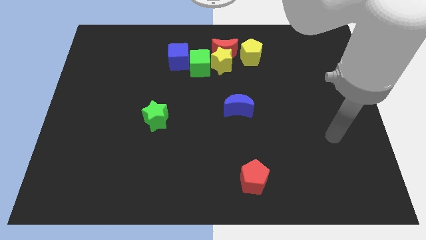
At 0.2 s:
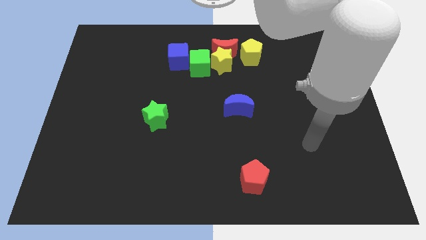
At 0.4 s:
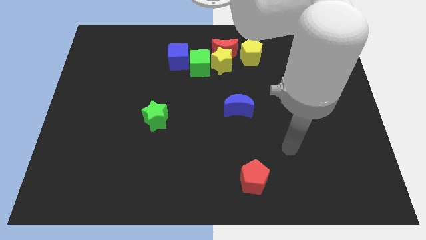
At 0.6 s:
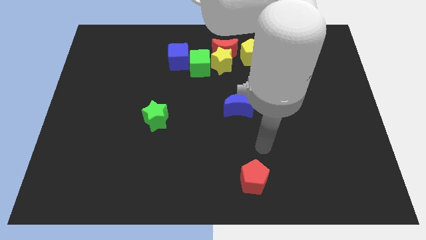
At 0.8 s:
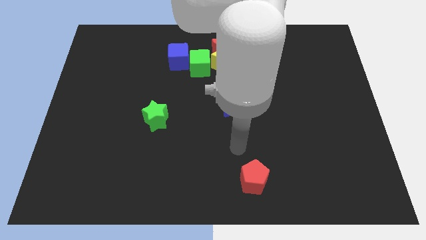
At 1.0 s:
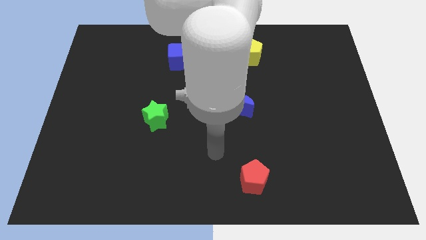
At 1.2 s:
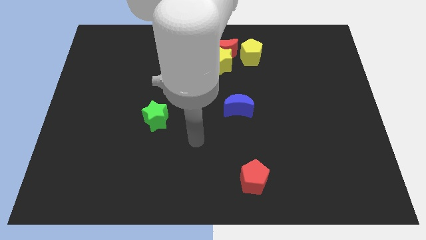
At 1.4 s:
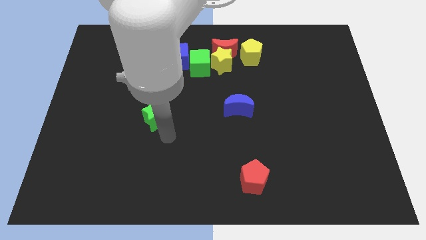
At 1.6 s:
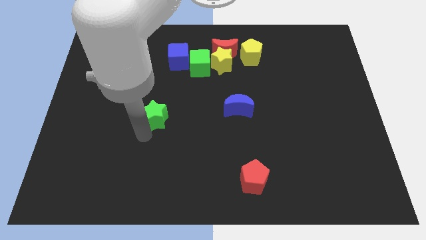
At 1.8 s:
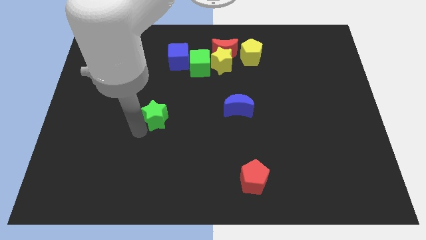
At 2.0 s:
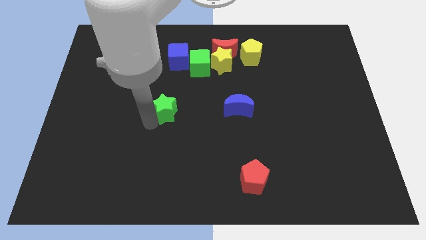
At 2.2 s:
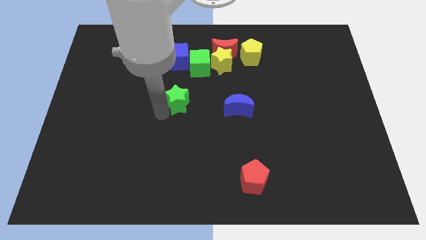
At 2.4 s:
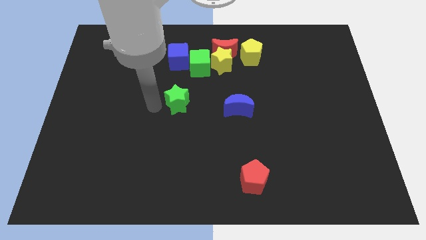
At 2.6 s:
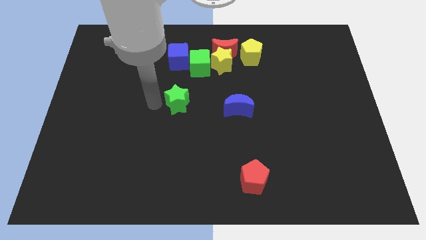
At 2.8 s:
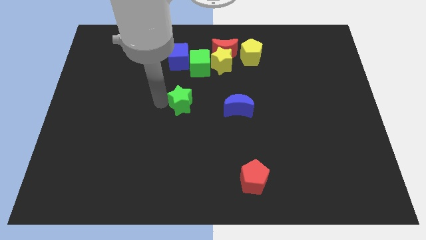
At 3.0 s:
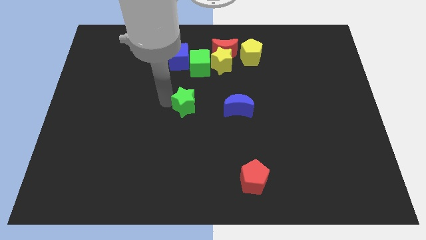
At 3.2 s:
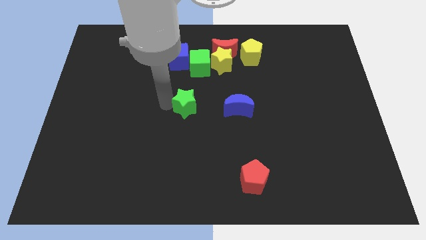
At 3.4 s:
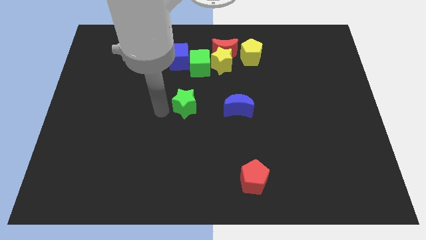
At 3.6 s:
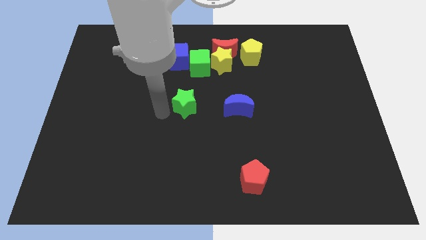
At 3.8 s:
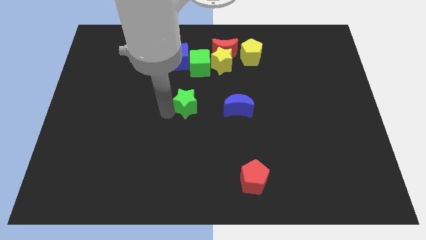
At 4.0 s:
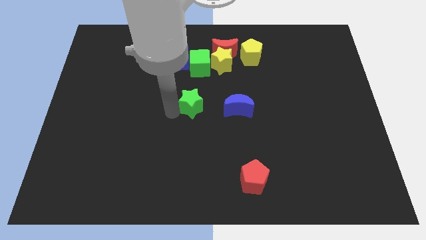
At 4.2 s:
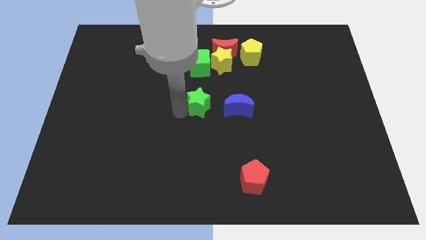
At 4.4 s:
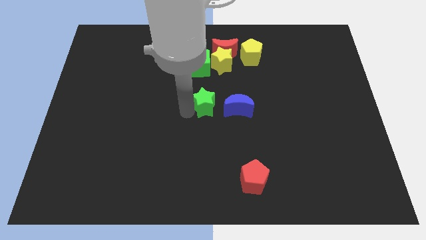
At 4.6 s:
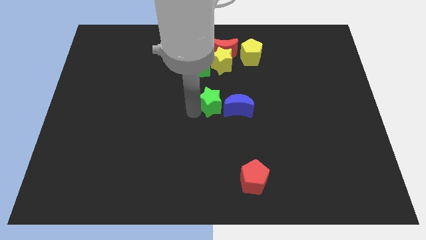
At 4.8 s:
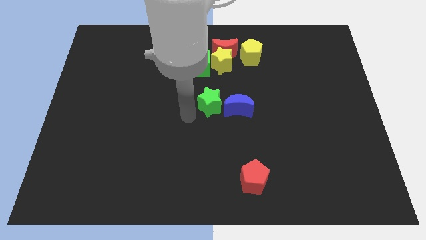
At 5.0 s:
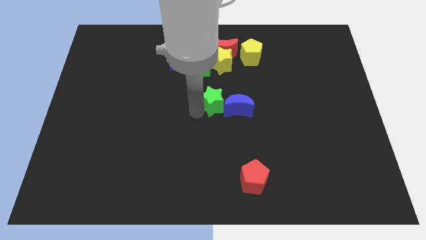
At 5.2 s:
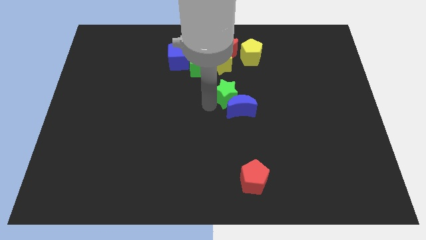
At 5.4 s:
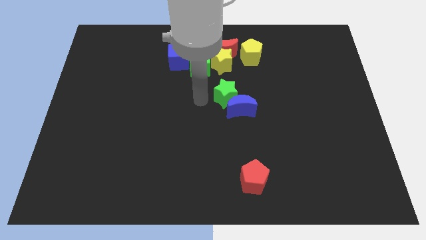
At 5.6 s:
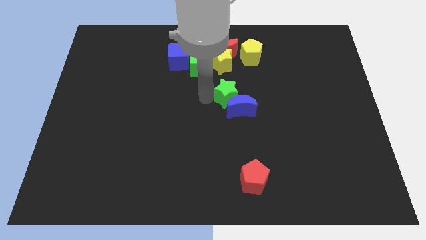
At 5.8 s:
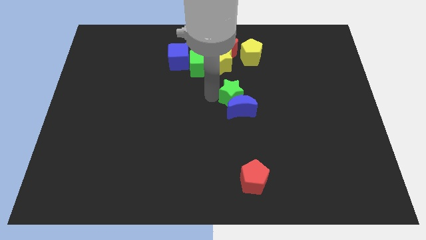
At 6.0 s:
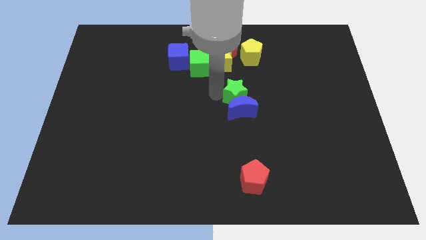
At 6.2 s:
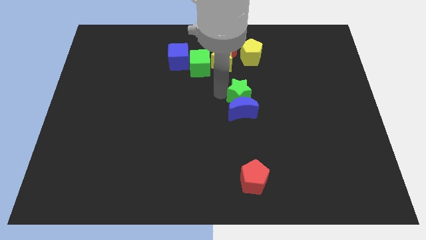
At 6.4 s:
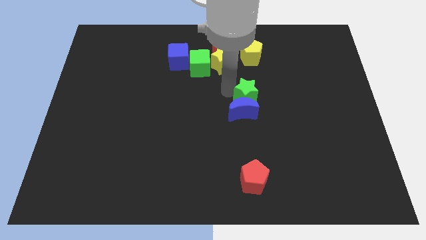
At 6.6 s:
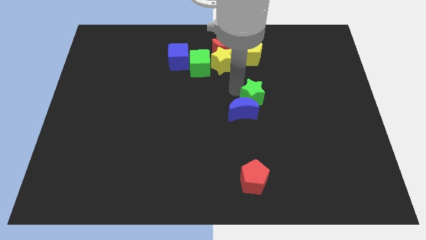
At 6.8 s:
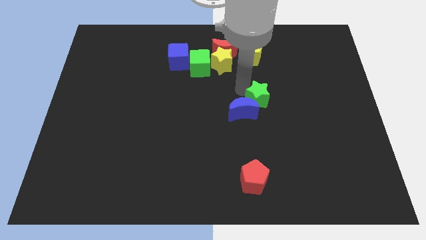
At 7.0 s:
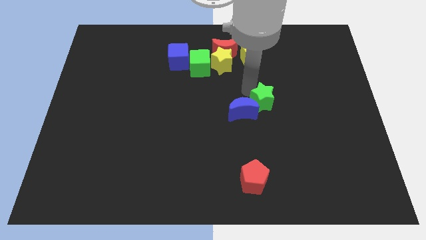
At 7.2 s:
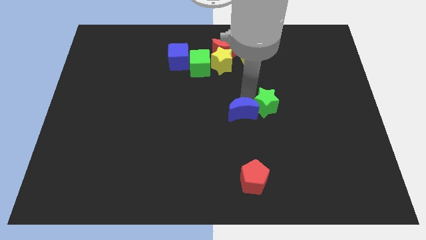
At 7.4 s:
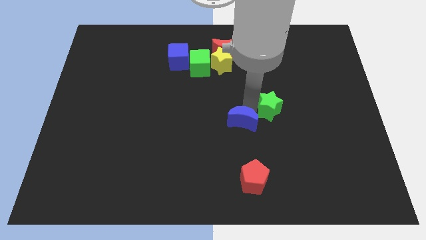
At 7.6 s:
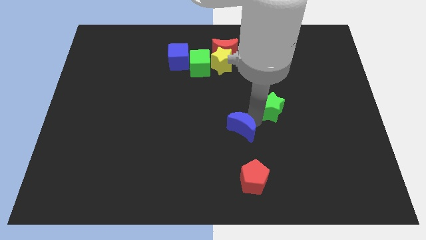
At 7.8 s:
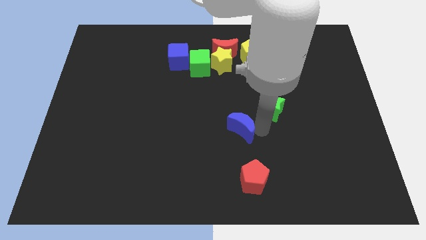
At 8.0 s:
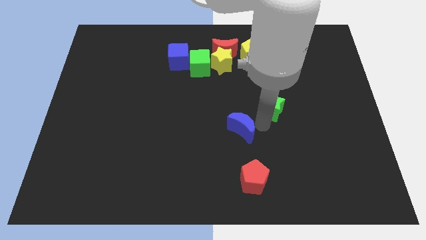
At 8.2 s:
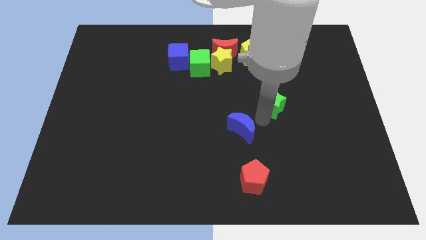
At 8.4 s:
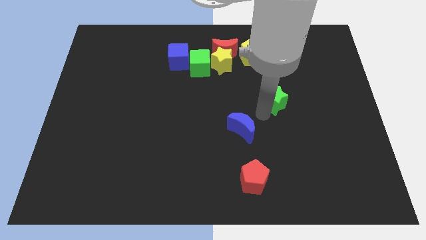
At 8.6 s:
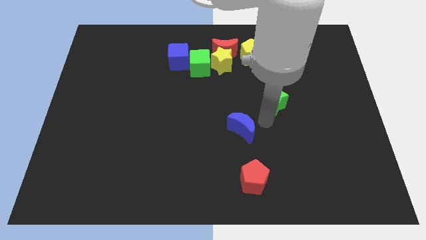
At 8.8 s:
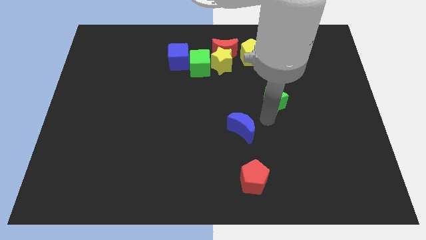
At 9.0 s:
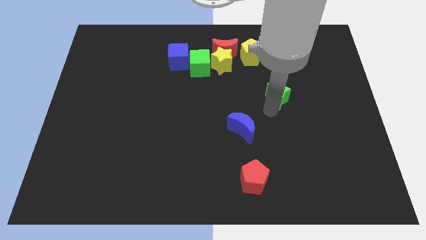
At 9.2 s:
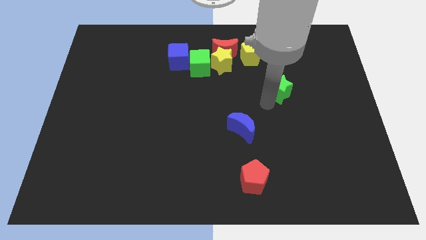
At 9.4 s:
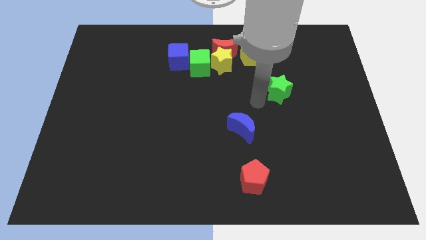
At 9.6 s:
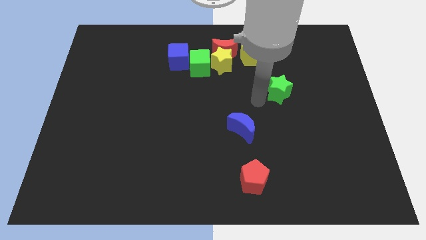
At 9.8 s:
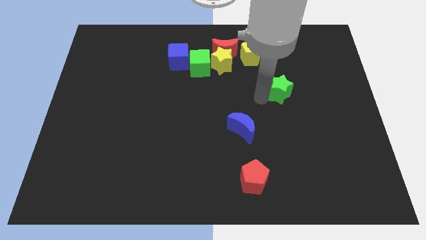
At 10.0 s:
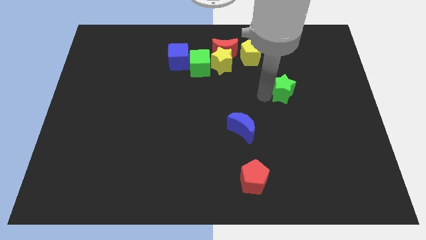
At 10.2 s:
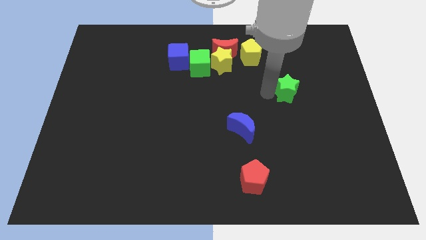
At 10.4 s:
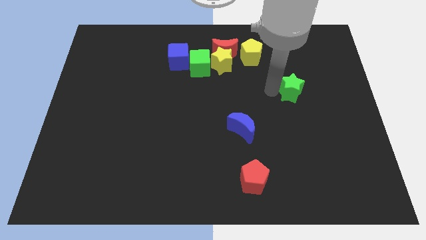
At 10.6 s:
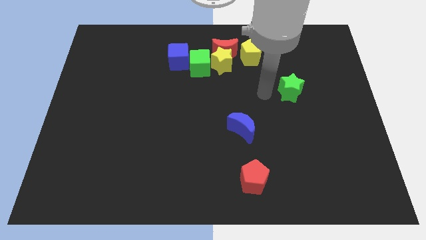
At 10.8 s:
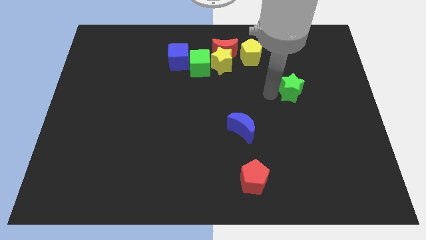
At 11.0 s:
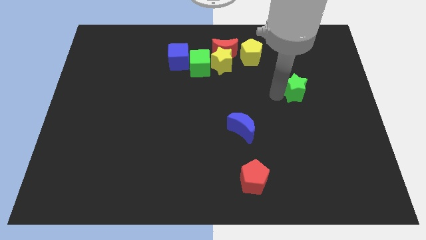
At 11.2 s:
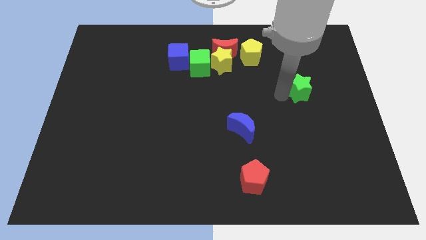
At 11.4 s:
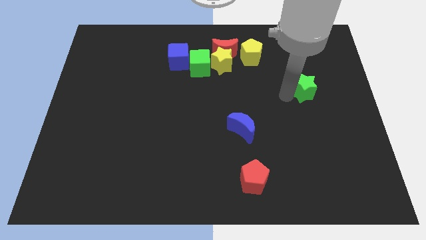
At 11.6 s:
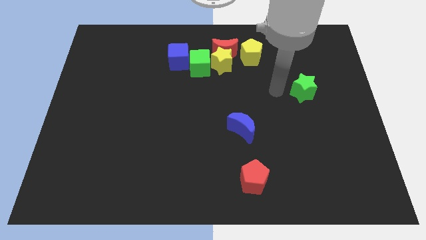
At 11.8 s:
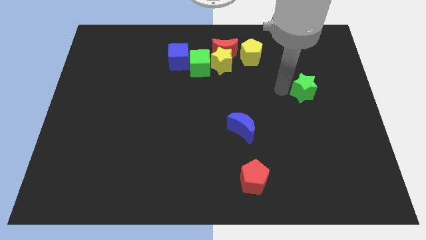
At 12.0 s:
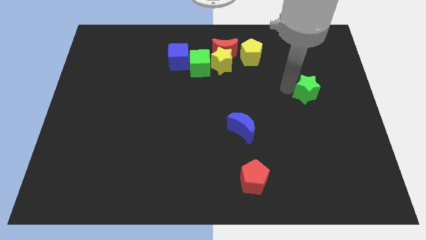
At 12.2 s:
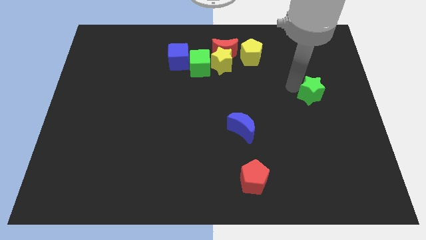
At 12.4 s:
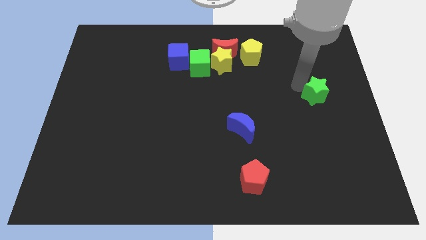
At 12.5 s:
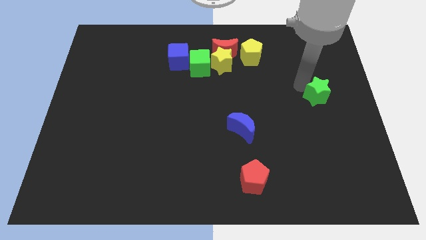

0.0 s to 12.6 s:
put the green star to the center right

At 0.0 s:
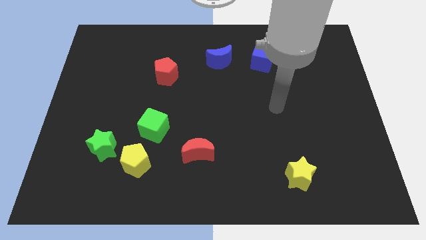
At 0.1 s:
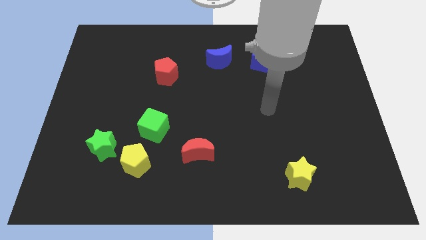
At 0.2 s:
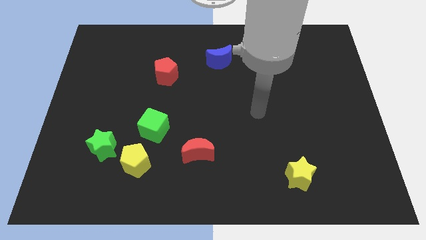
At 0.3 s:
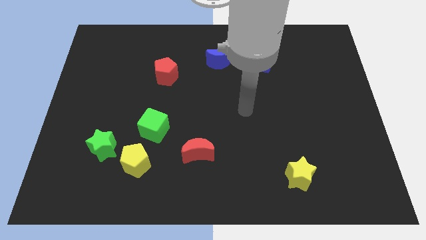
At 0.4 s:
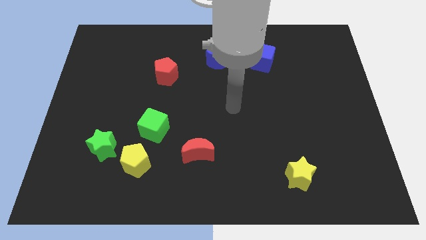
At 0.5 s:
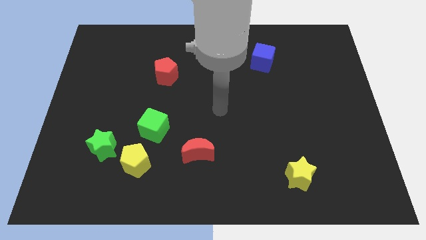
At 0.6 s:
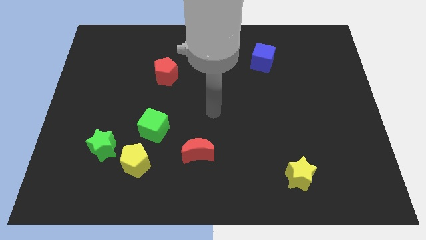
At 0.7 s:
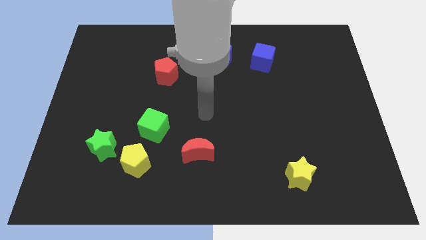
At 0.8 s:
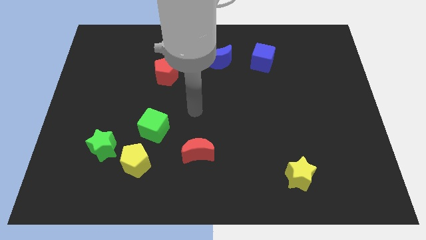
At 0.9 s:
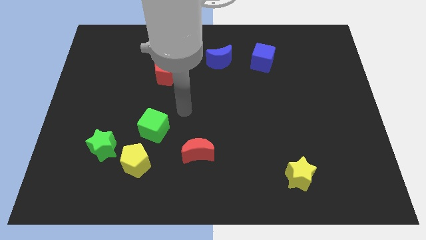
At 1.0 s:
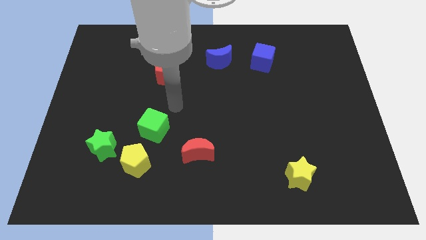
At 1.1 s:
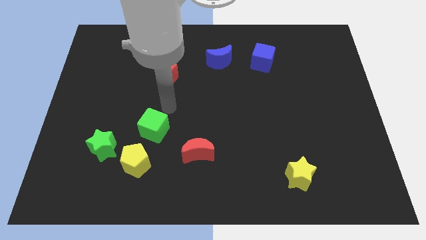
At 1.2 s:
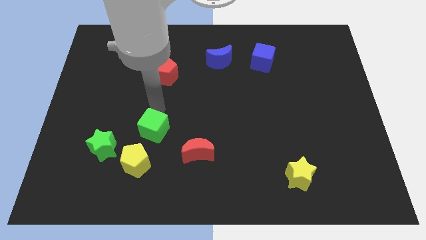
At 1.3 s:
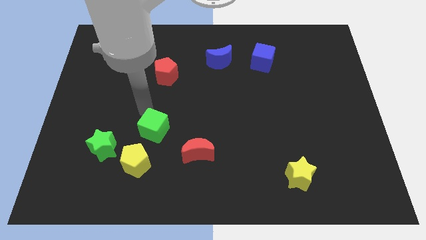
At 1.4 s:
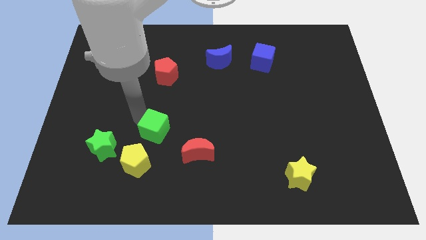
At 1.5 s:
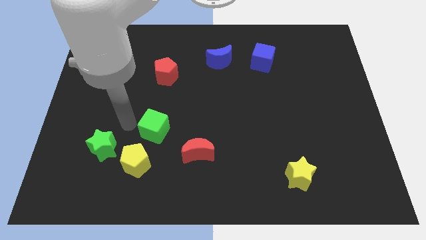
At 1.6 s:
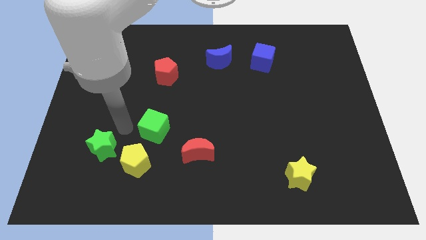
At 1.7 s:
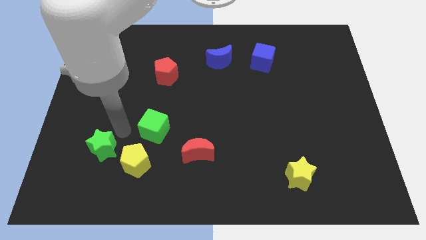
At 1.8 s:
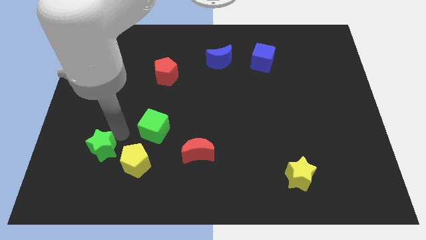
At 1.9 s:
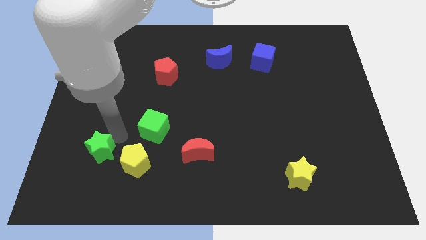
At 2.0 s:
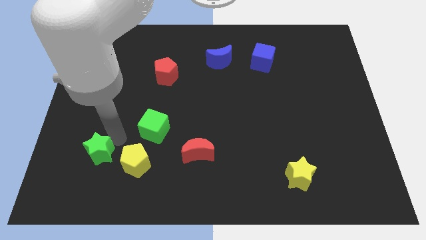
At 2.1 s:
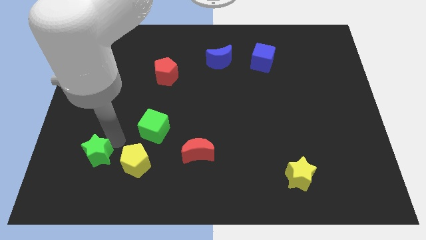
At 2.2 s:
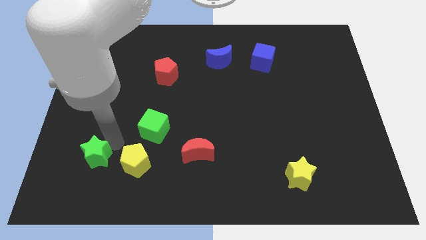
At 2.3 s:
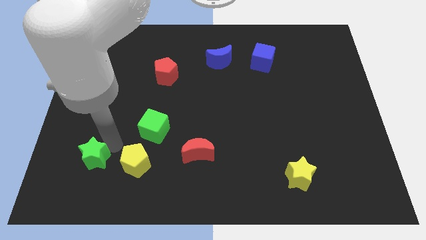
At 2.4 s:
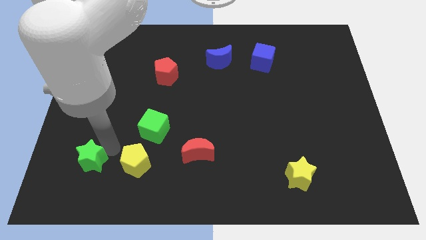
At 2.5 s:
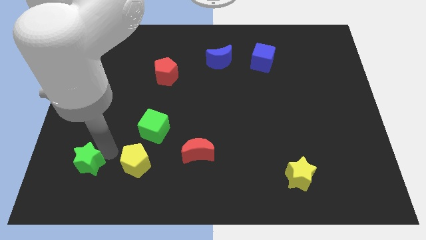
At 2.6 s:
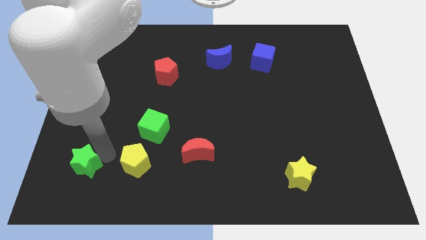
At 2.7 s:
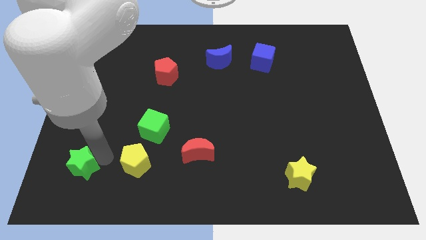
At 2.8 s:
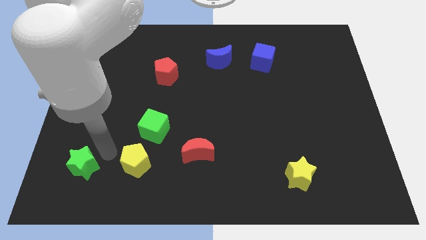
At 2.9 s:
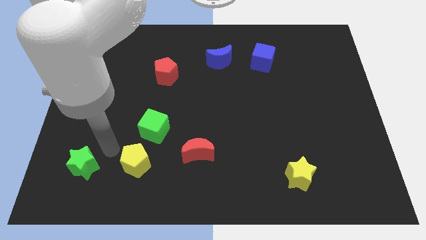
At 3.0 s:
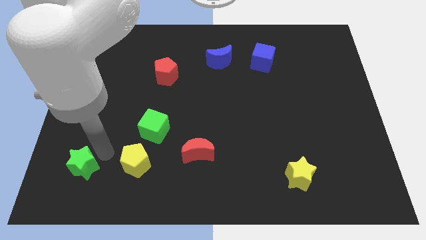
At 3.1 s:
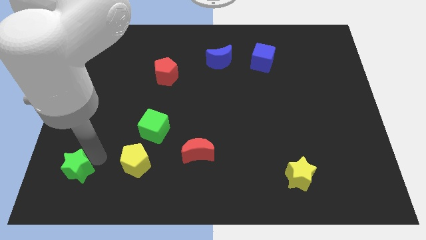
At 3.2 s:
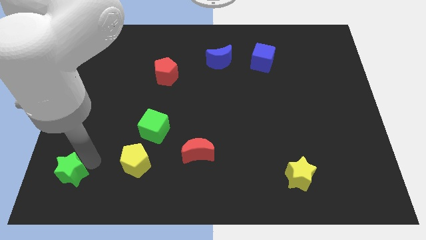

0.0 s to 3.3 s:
move the green star to the bottom left of the board
